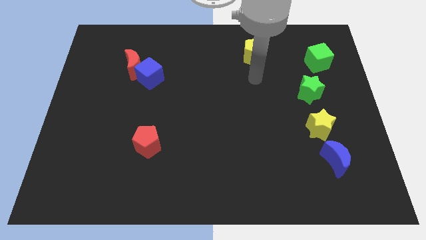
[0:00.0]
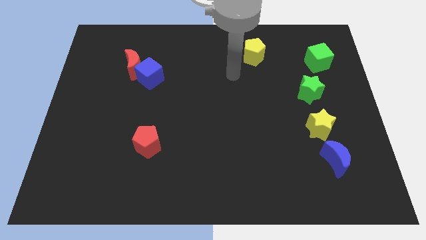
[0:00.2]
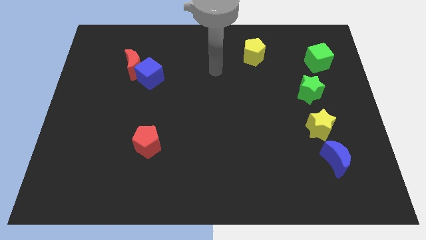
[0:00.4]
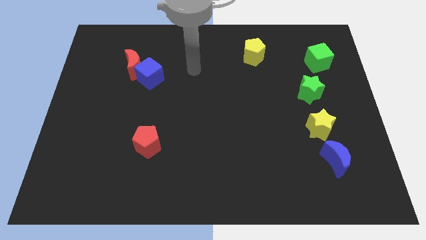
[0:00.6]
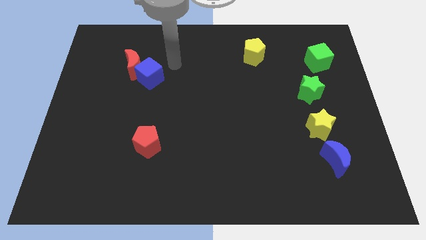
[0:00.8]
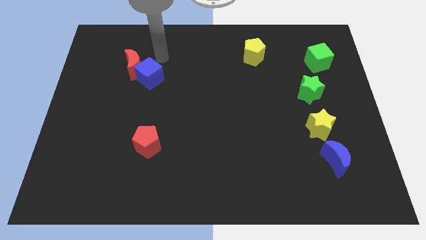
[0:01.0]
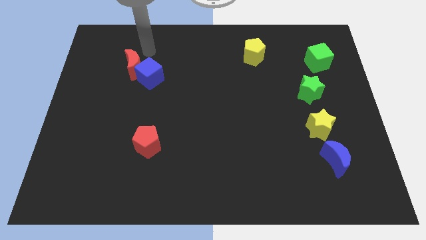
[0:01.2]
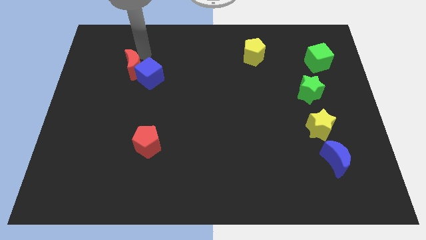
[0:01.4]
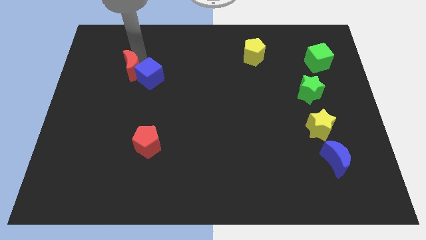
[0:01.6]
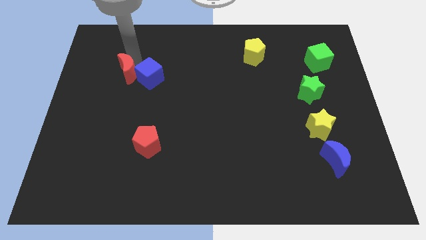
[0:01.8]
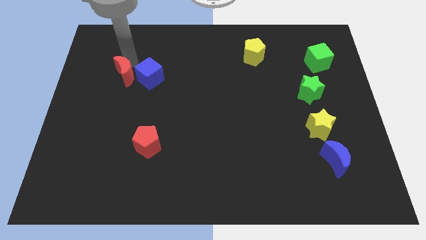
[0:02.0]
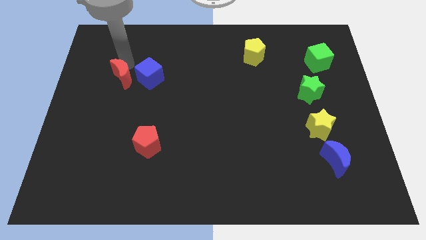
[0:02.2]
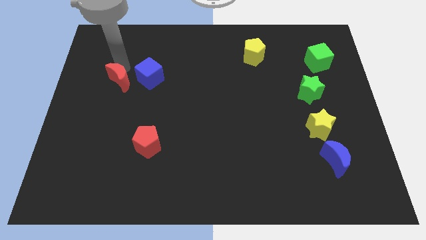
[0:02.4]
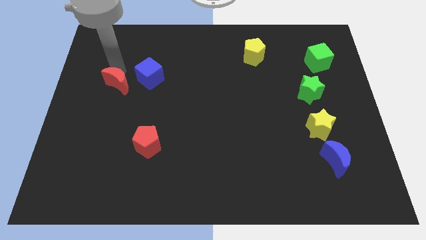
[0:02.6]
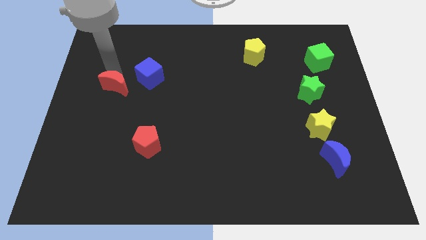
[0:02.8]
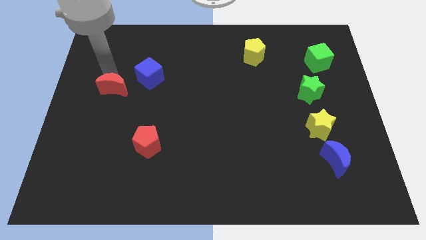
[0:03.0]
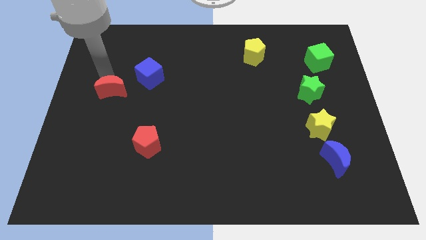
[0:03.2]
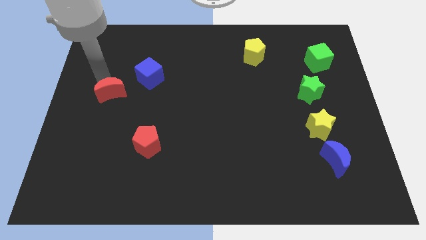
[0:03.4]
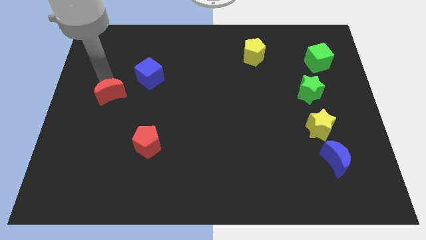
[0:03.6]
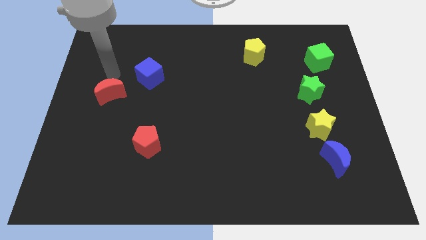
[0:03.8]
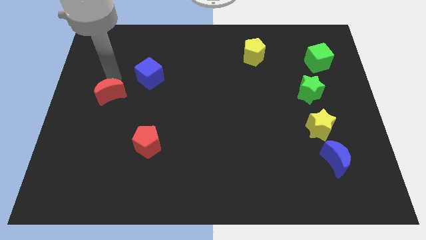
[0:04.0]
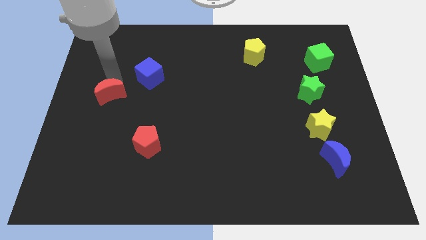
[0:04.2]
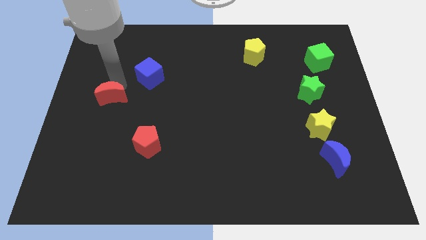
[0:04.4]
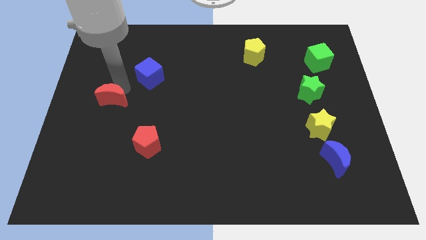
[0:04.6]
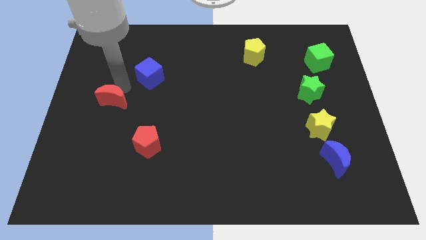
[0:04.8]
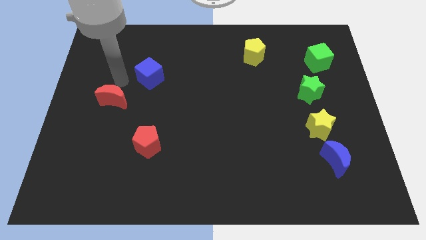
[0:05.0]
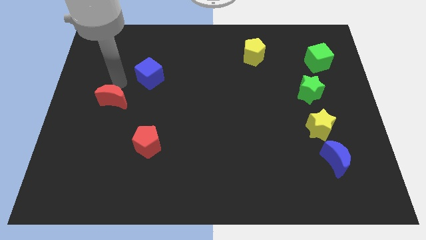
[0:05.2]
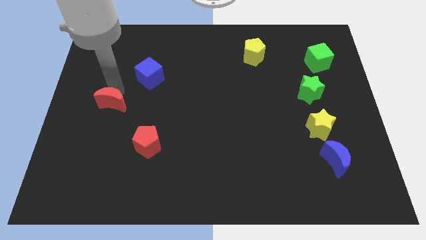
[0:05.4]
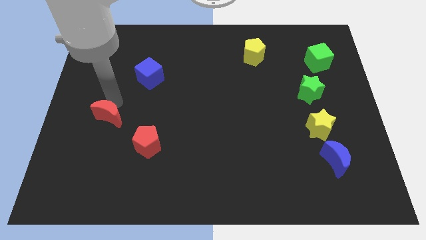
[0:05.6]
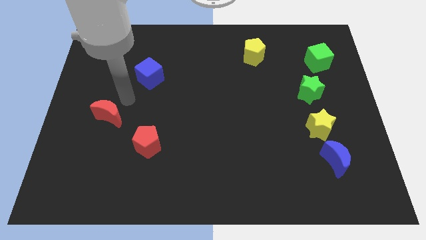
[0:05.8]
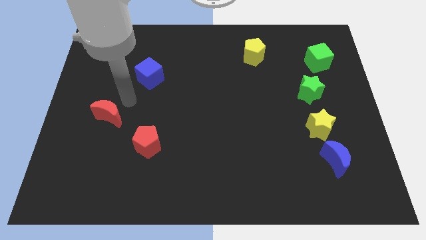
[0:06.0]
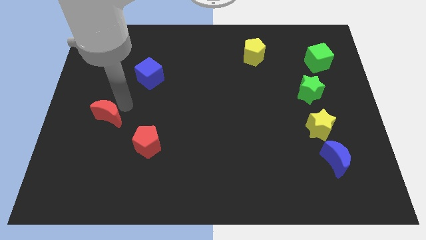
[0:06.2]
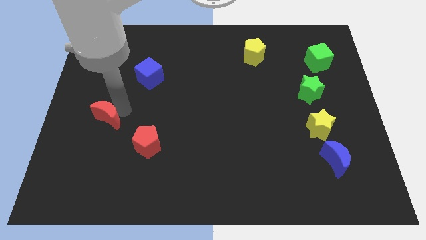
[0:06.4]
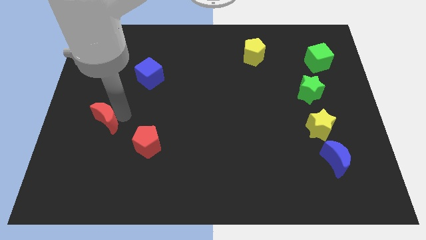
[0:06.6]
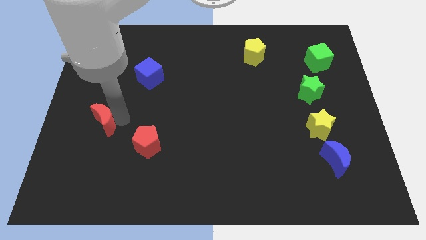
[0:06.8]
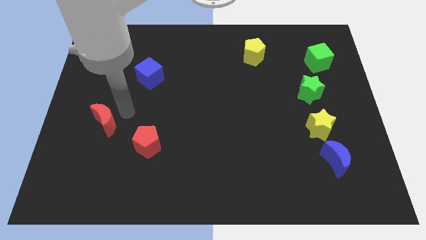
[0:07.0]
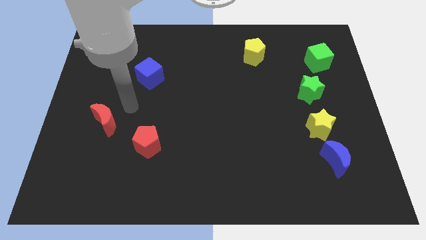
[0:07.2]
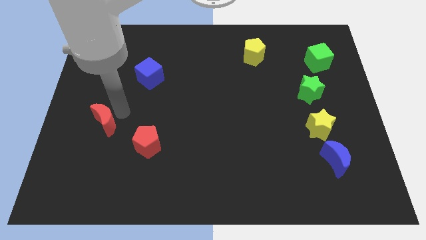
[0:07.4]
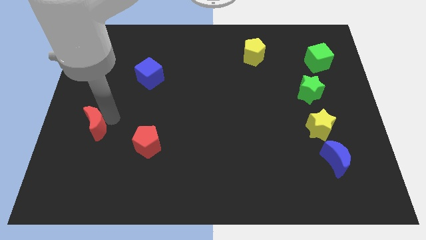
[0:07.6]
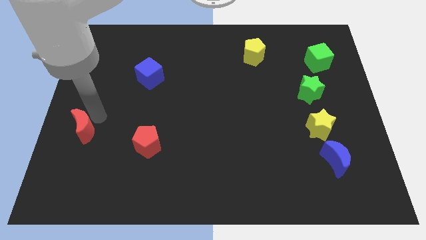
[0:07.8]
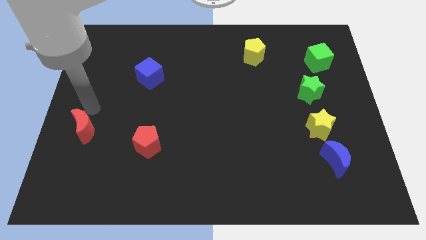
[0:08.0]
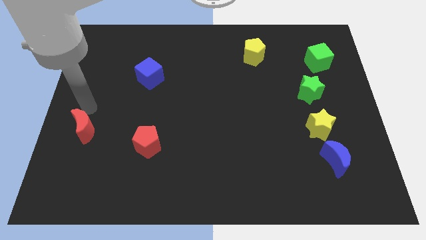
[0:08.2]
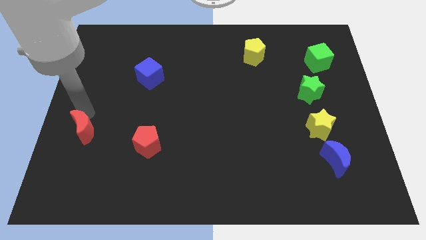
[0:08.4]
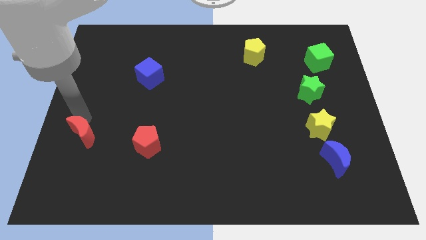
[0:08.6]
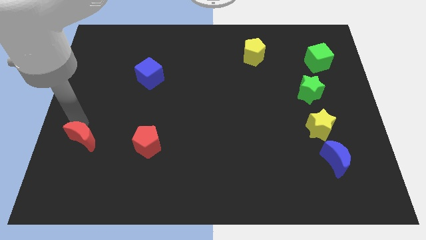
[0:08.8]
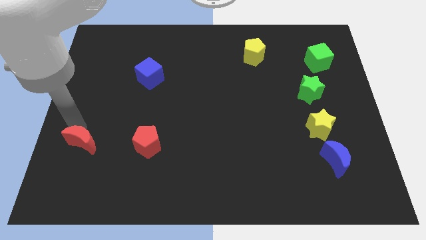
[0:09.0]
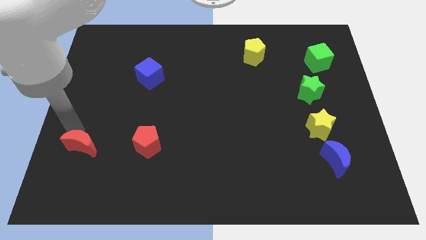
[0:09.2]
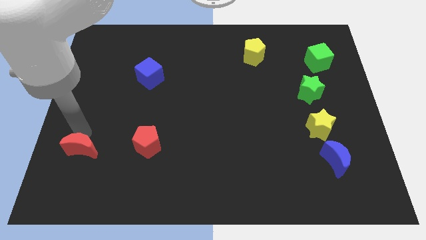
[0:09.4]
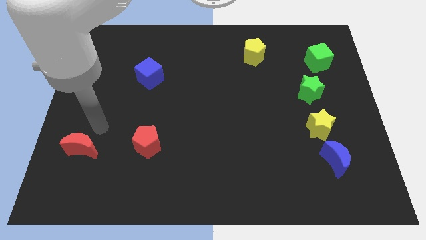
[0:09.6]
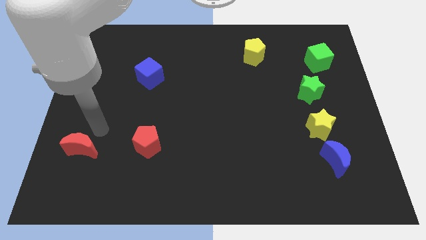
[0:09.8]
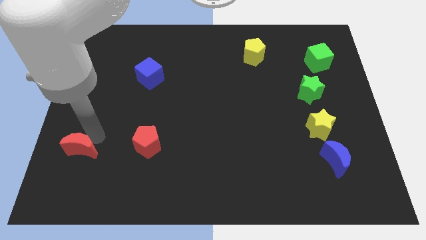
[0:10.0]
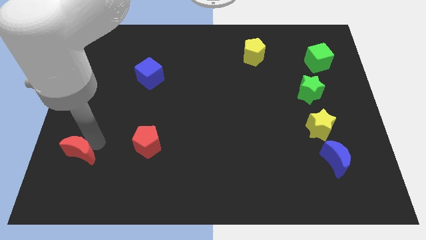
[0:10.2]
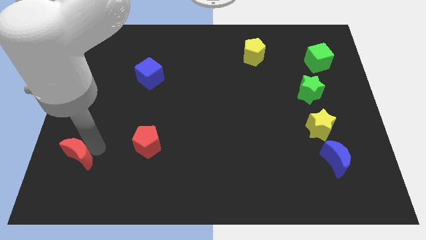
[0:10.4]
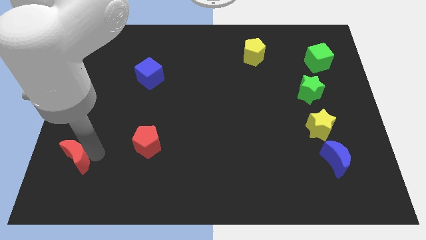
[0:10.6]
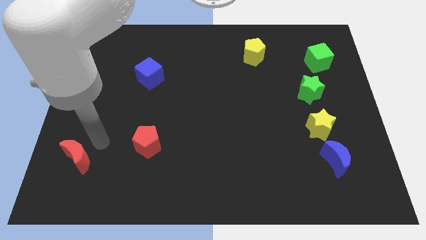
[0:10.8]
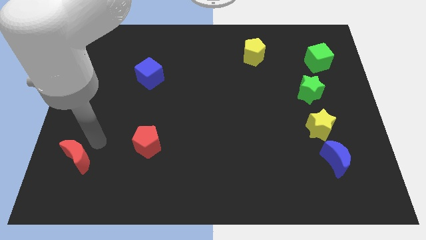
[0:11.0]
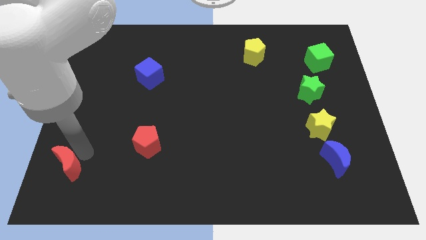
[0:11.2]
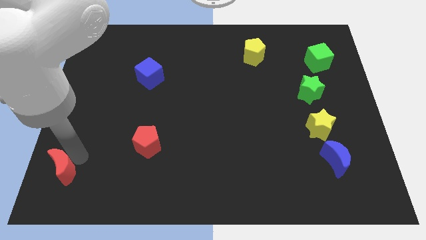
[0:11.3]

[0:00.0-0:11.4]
push the red moon to the bottom left corner
